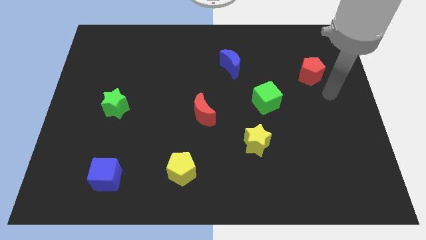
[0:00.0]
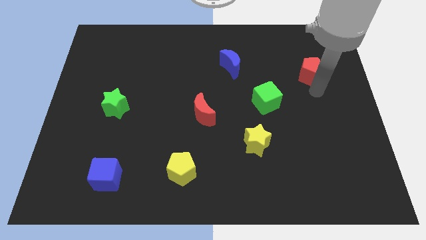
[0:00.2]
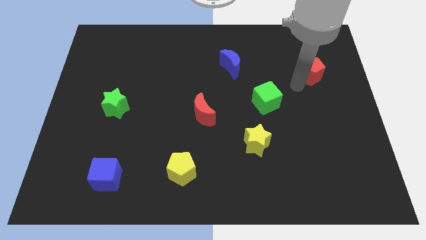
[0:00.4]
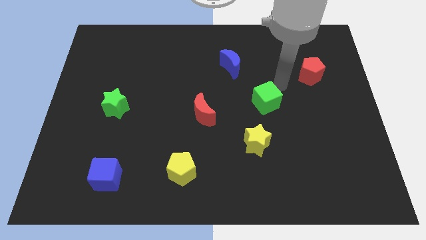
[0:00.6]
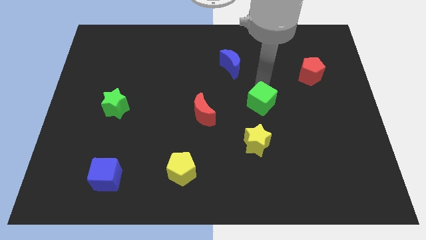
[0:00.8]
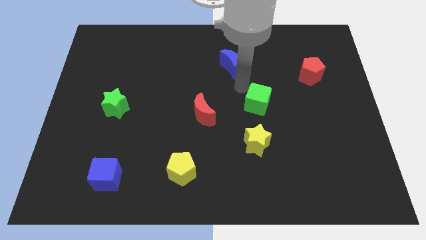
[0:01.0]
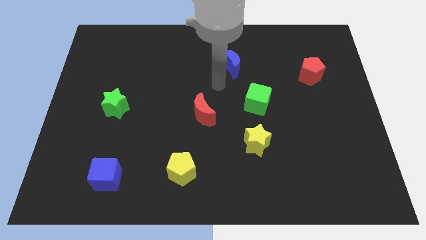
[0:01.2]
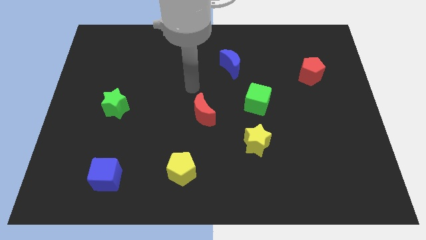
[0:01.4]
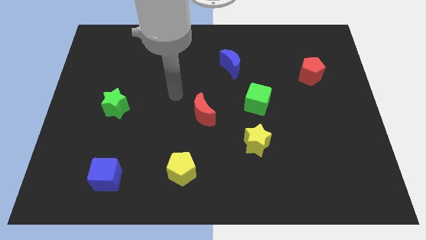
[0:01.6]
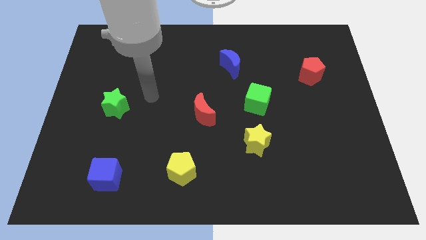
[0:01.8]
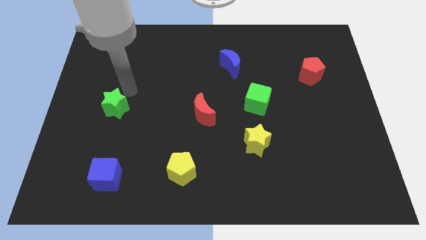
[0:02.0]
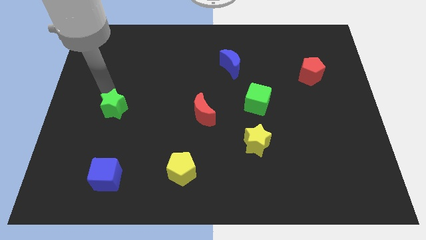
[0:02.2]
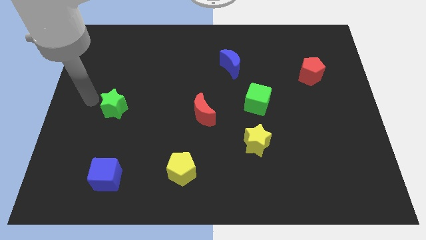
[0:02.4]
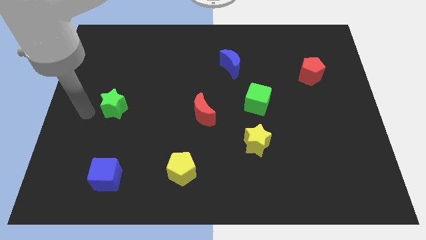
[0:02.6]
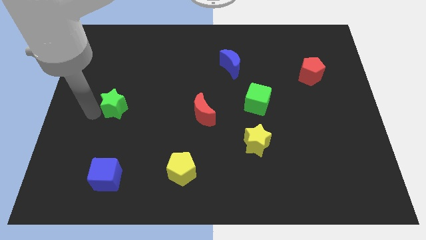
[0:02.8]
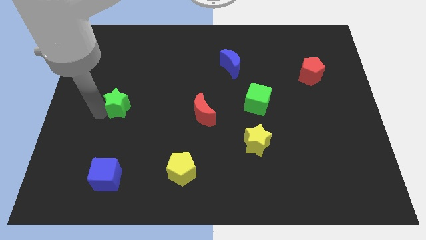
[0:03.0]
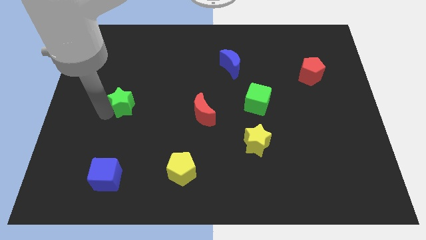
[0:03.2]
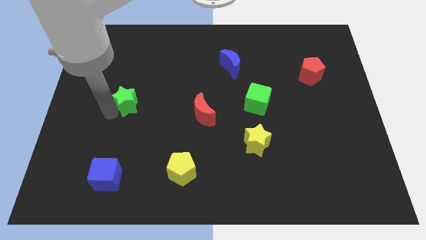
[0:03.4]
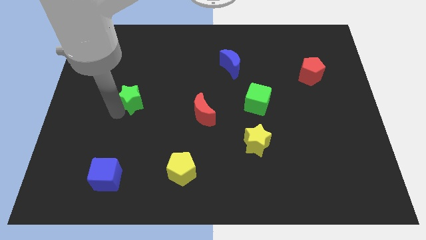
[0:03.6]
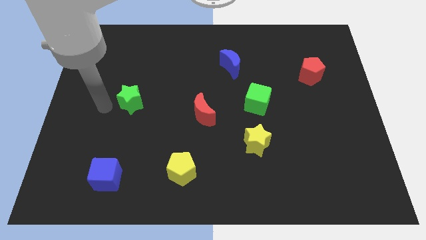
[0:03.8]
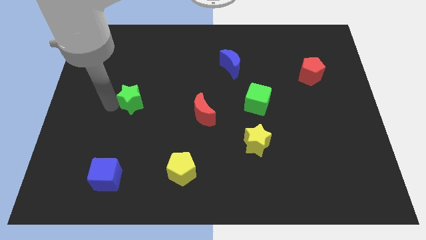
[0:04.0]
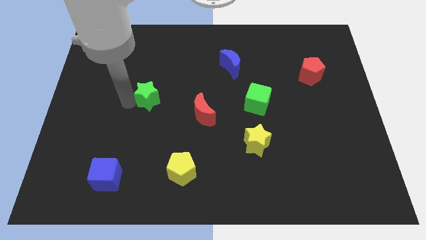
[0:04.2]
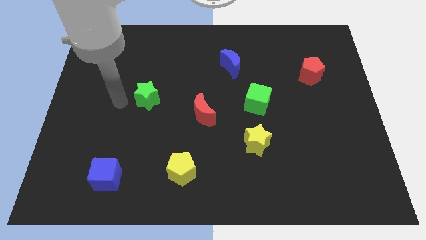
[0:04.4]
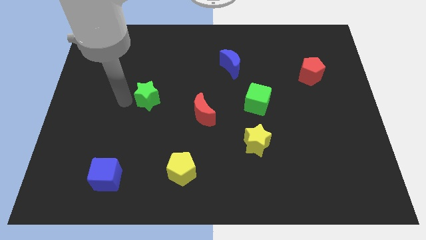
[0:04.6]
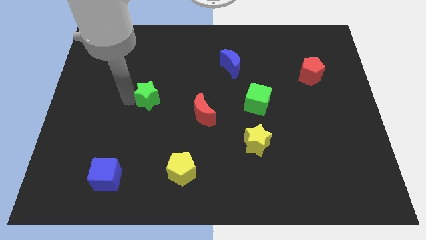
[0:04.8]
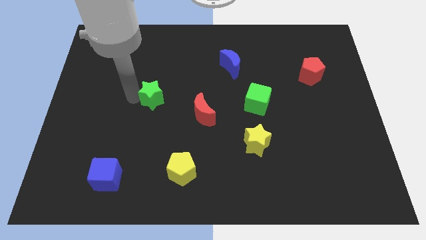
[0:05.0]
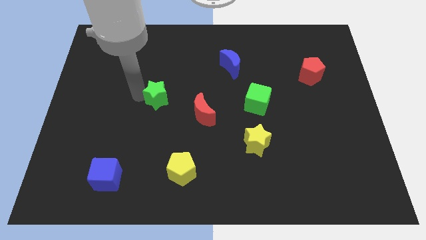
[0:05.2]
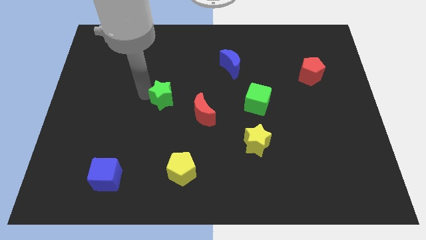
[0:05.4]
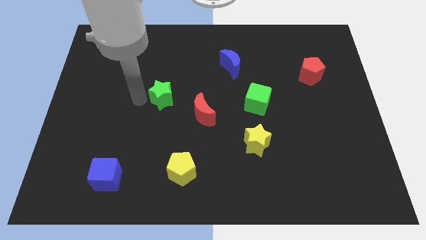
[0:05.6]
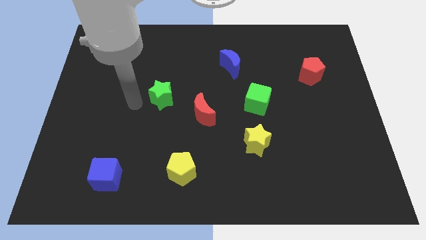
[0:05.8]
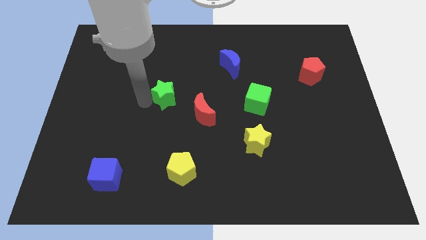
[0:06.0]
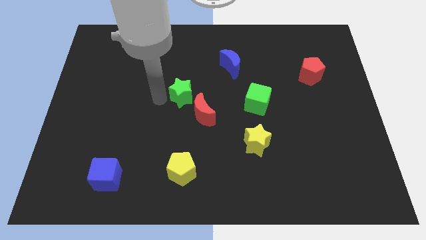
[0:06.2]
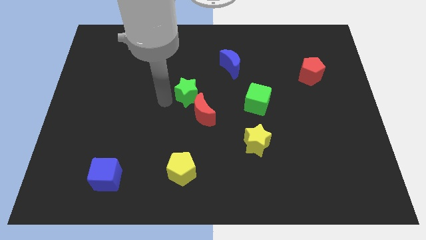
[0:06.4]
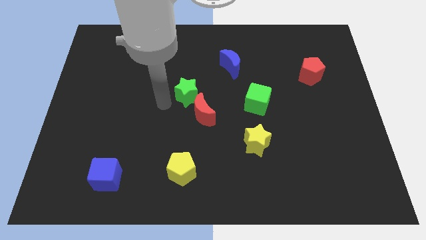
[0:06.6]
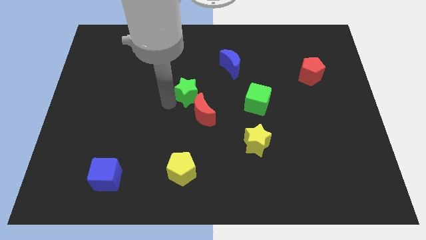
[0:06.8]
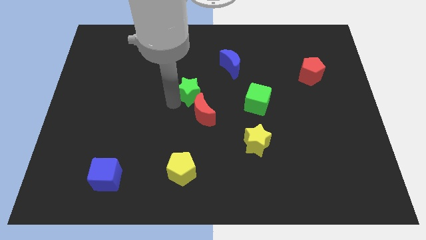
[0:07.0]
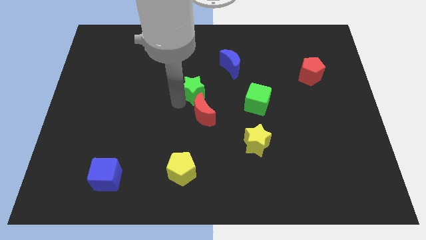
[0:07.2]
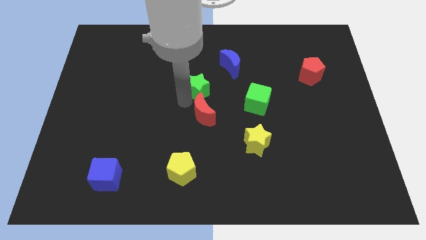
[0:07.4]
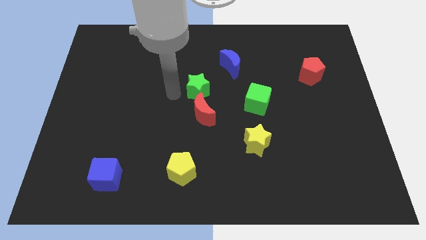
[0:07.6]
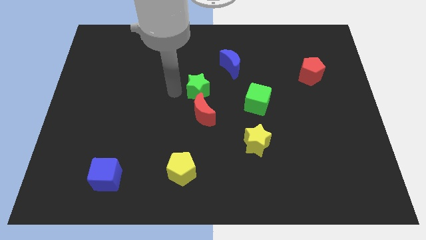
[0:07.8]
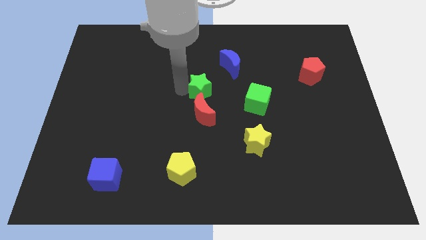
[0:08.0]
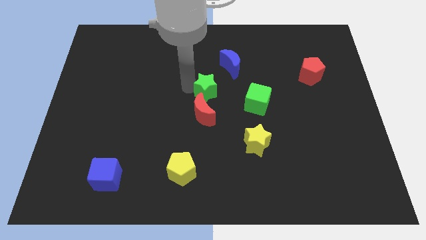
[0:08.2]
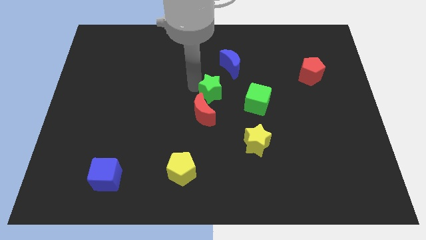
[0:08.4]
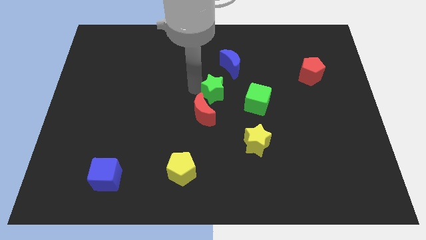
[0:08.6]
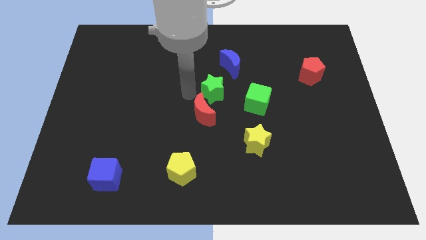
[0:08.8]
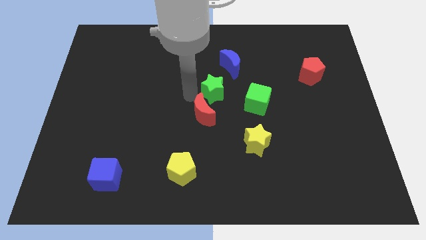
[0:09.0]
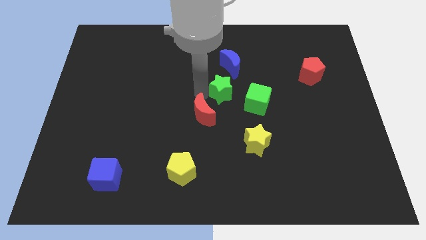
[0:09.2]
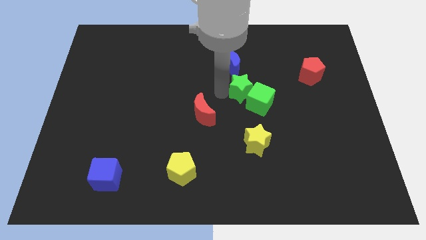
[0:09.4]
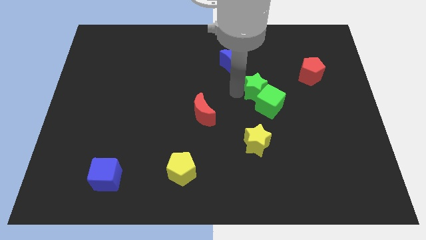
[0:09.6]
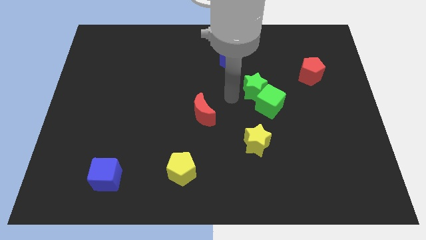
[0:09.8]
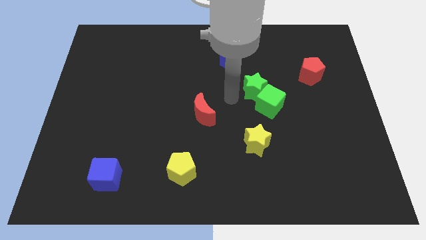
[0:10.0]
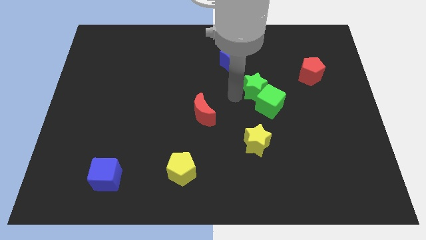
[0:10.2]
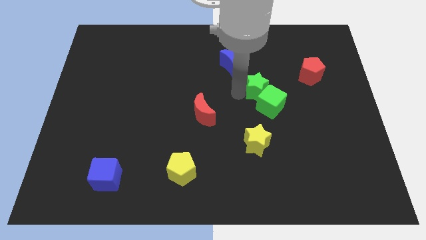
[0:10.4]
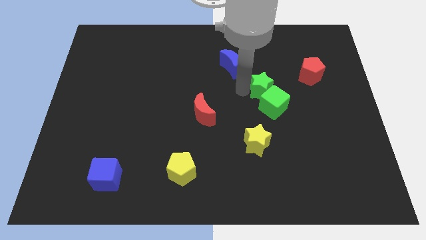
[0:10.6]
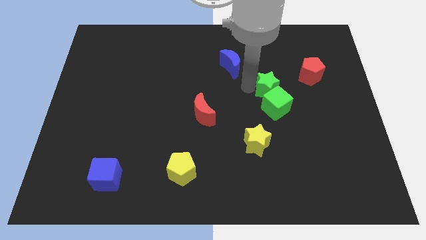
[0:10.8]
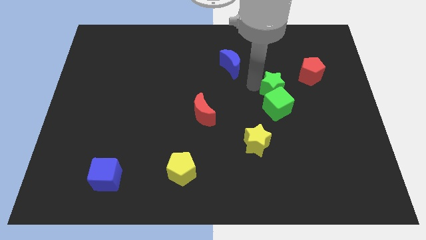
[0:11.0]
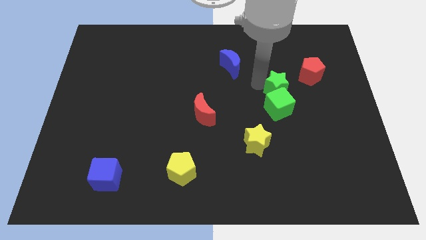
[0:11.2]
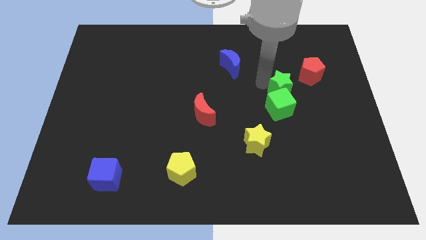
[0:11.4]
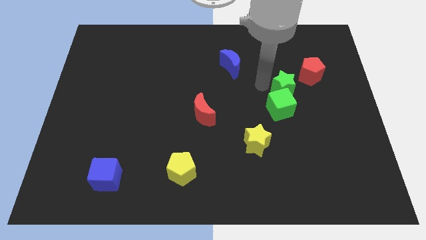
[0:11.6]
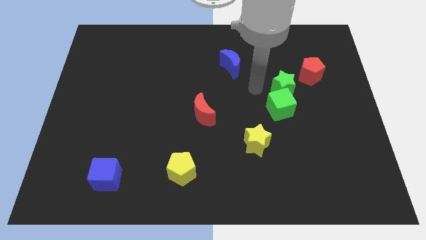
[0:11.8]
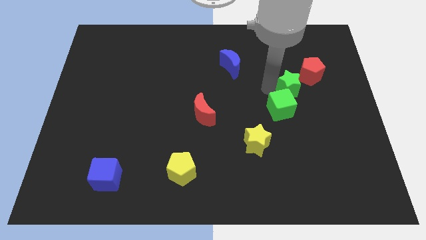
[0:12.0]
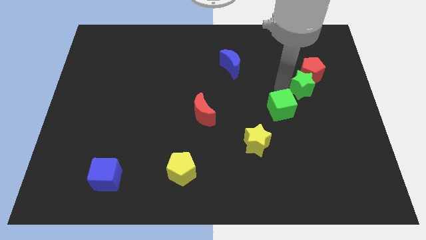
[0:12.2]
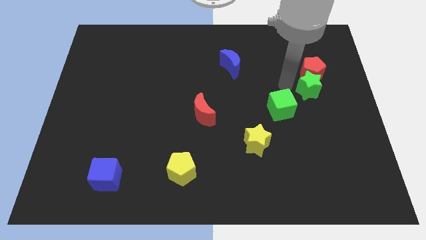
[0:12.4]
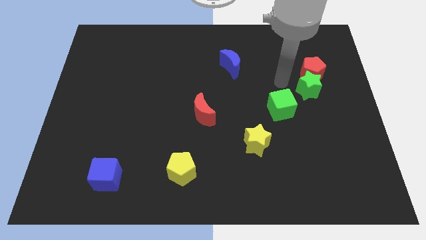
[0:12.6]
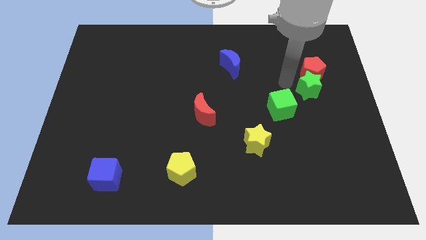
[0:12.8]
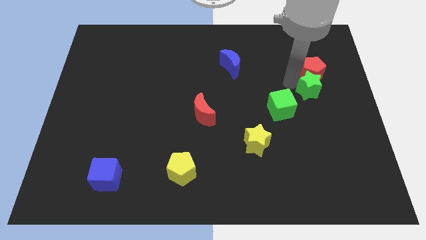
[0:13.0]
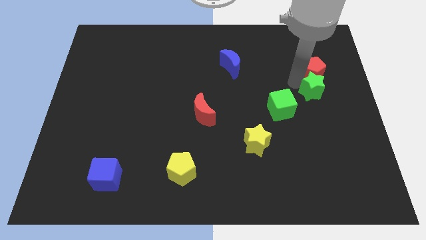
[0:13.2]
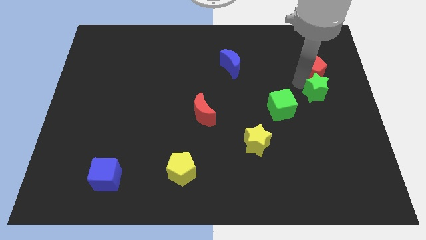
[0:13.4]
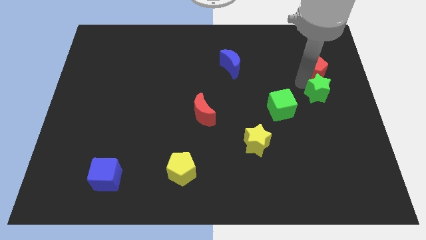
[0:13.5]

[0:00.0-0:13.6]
move the green star to the right side

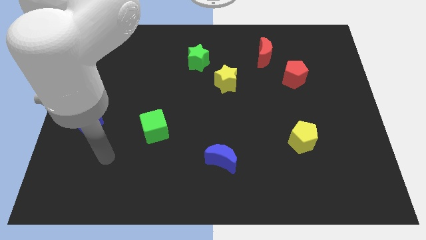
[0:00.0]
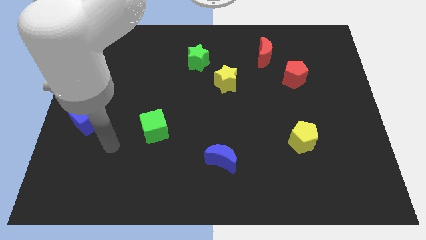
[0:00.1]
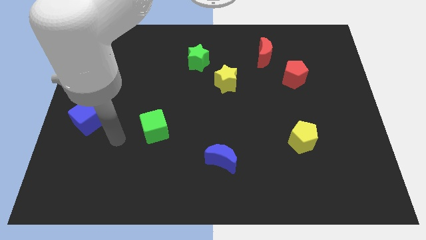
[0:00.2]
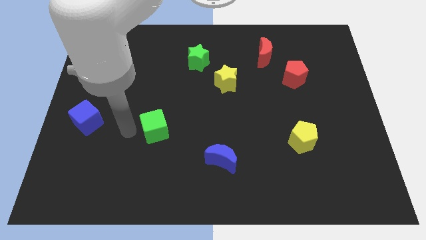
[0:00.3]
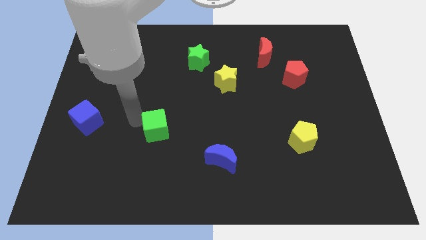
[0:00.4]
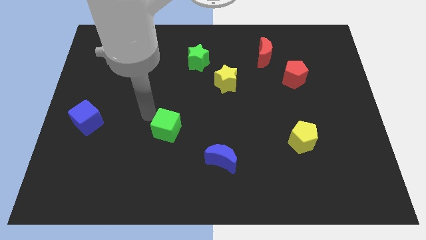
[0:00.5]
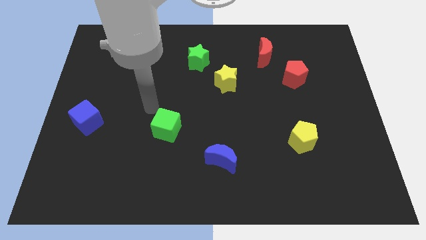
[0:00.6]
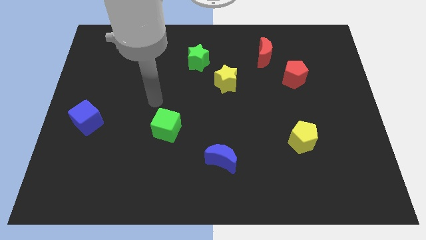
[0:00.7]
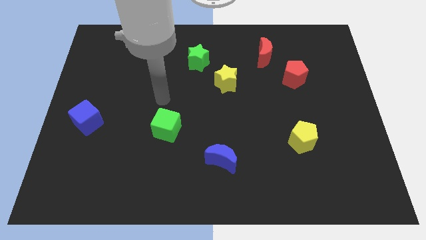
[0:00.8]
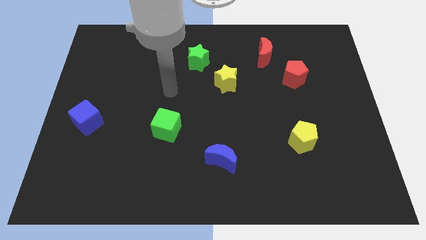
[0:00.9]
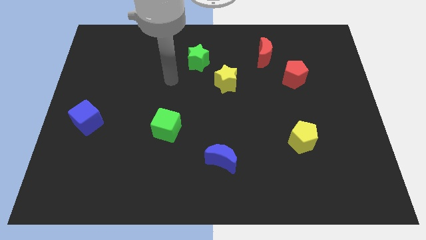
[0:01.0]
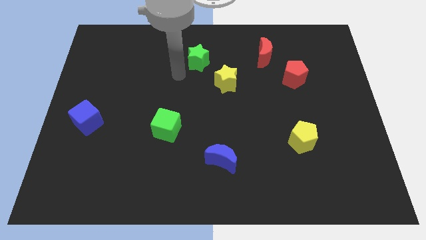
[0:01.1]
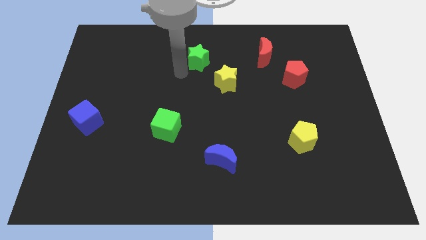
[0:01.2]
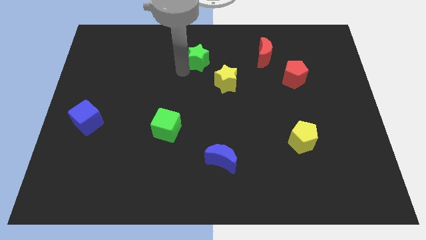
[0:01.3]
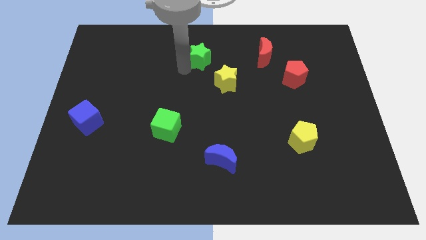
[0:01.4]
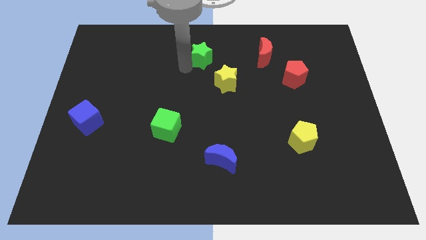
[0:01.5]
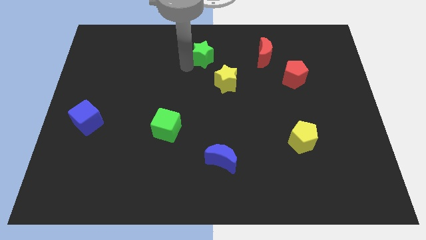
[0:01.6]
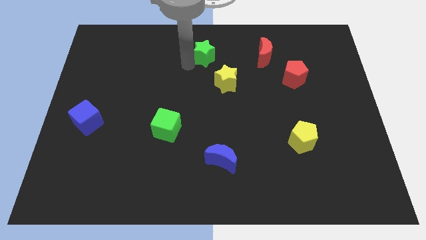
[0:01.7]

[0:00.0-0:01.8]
push the green star to the towards your base
